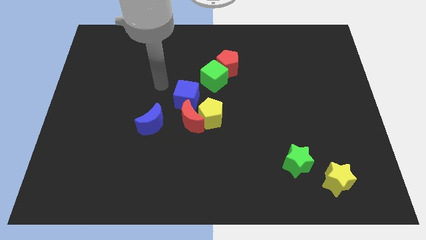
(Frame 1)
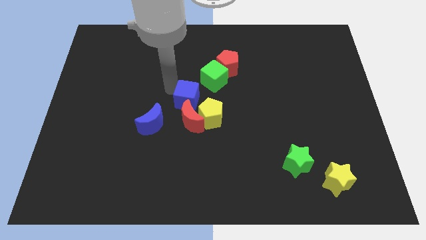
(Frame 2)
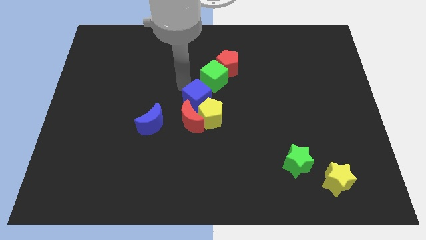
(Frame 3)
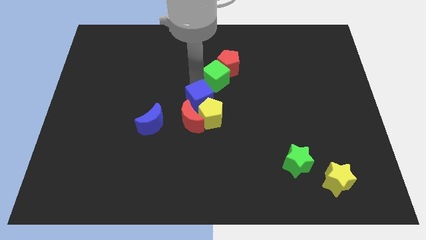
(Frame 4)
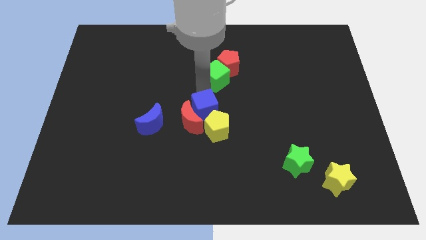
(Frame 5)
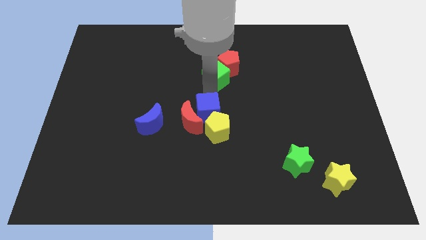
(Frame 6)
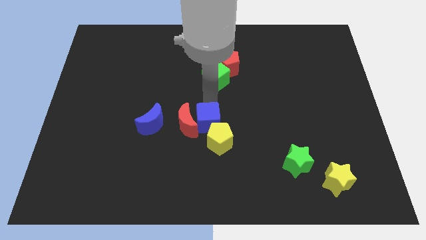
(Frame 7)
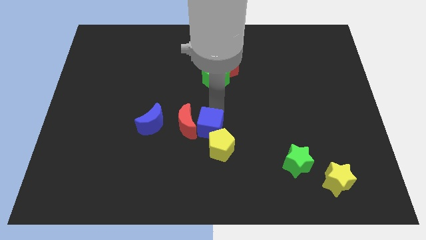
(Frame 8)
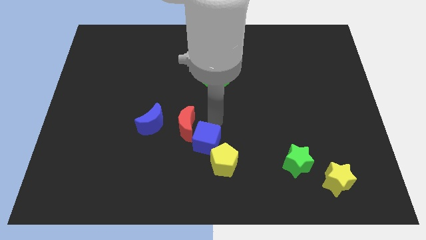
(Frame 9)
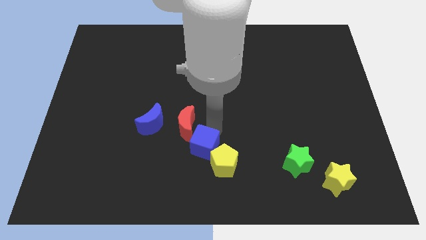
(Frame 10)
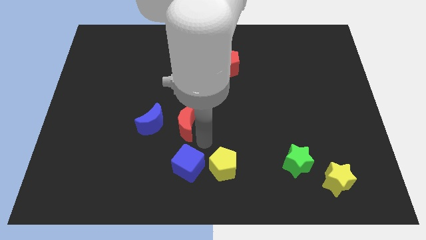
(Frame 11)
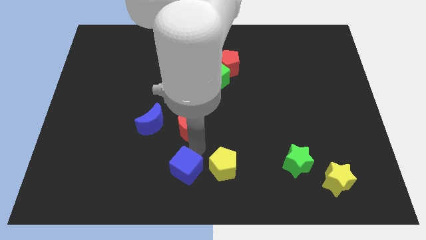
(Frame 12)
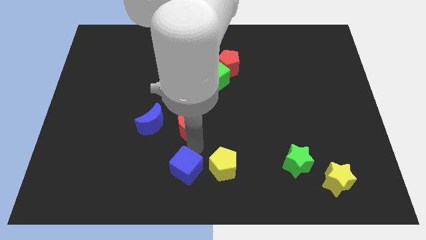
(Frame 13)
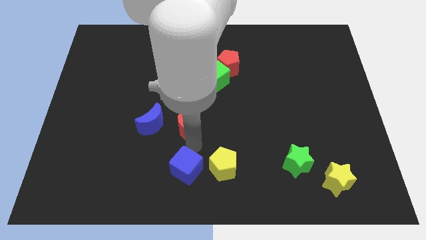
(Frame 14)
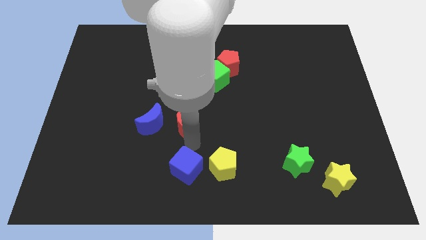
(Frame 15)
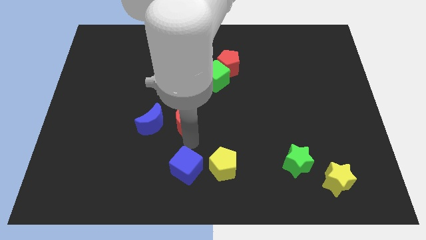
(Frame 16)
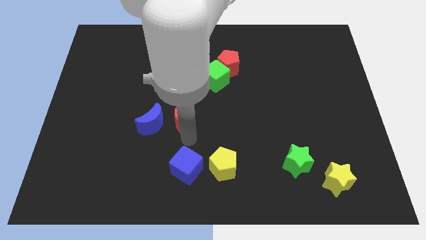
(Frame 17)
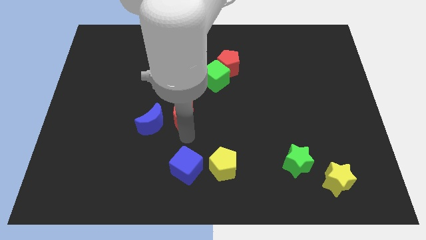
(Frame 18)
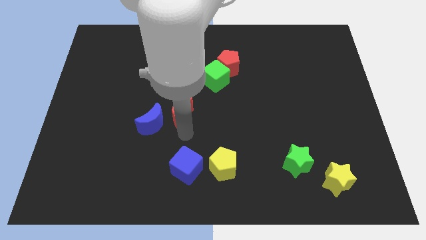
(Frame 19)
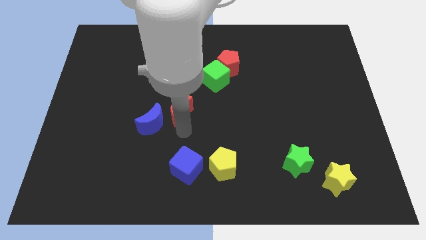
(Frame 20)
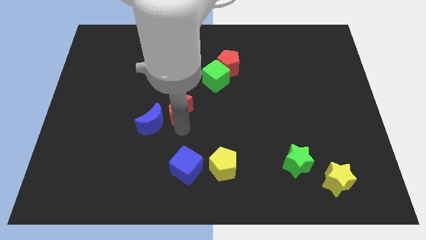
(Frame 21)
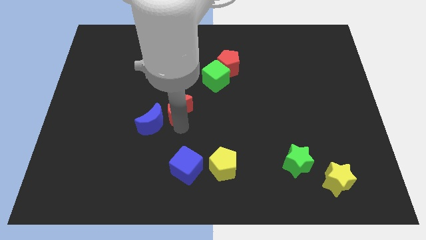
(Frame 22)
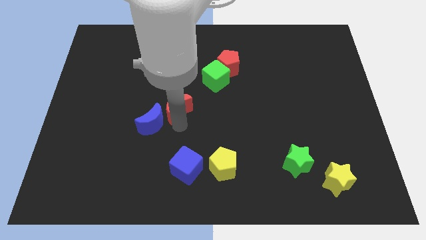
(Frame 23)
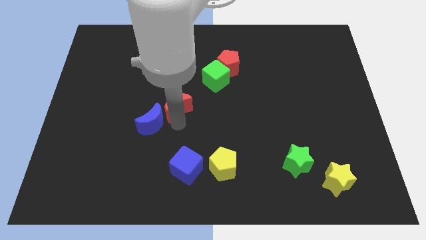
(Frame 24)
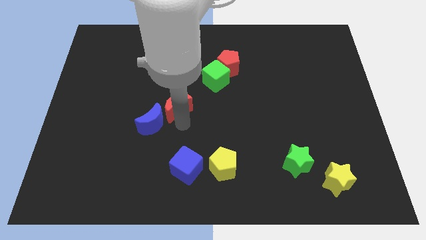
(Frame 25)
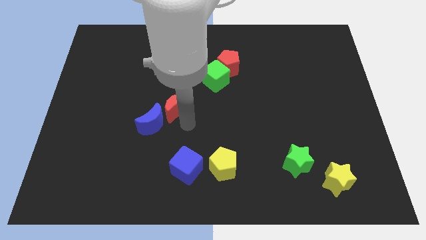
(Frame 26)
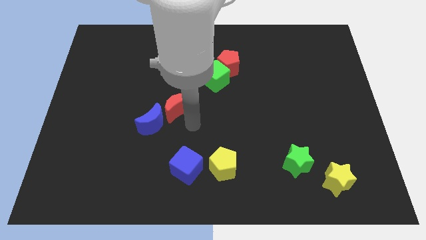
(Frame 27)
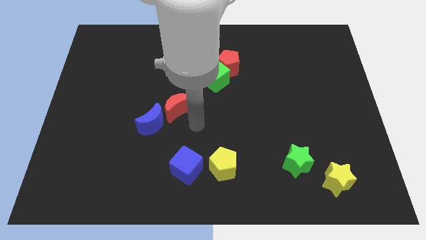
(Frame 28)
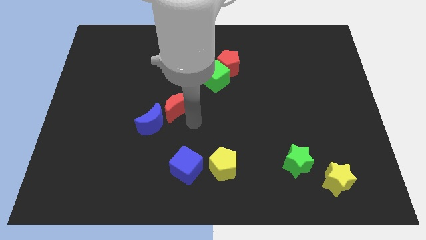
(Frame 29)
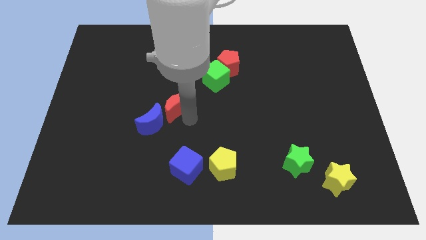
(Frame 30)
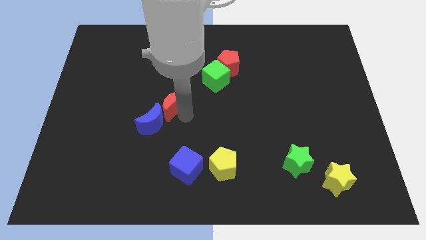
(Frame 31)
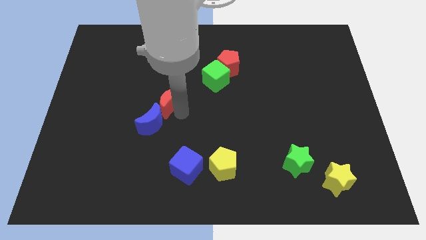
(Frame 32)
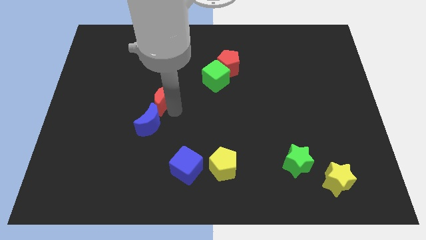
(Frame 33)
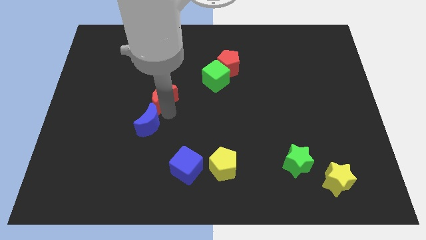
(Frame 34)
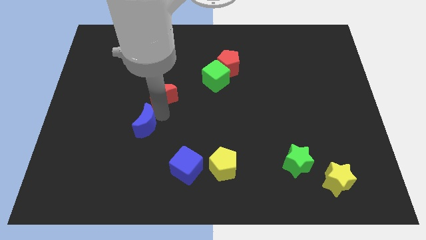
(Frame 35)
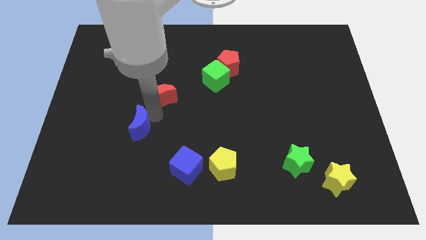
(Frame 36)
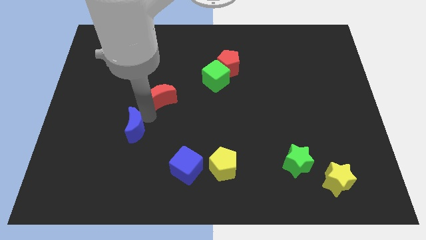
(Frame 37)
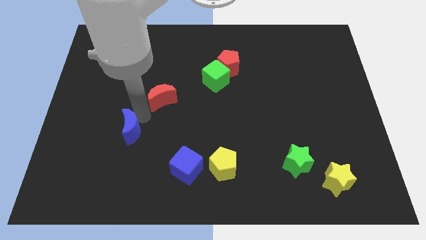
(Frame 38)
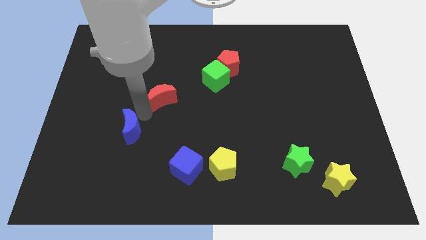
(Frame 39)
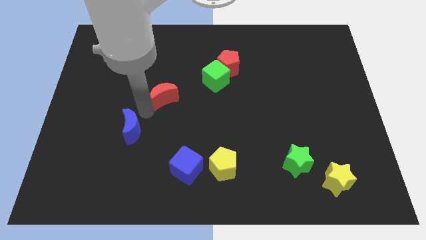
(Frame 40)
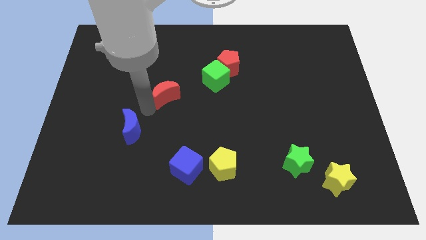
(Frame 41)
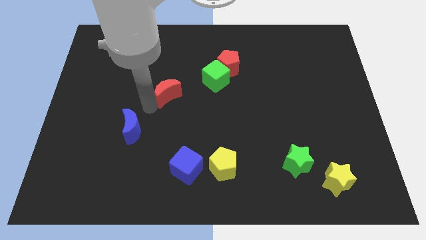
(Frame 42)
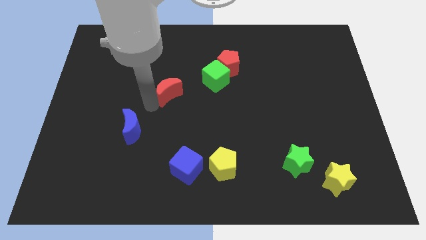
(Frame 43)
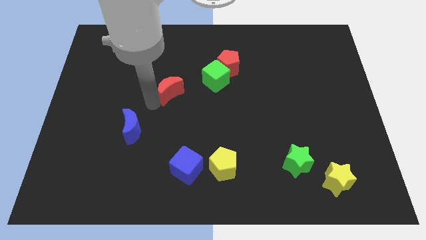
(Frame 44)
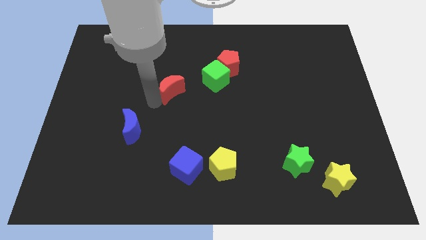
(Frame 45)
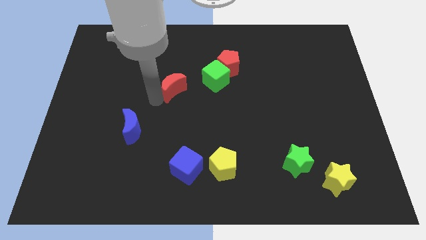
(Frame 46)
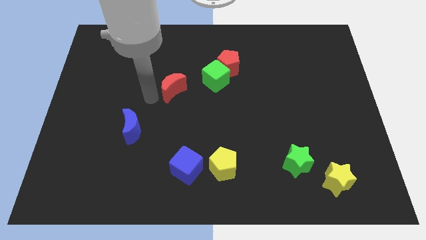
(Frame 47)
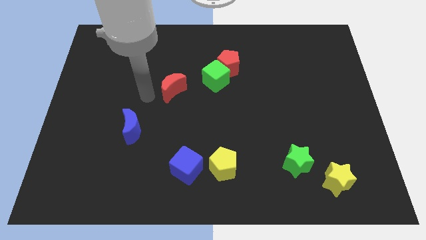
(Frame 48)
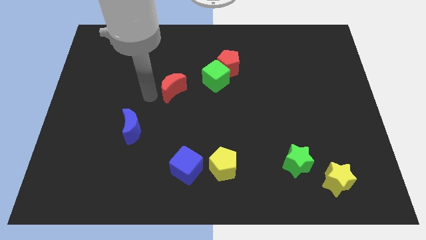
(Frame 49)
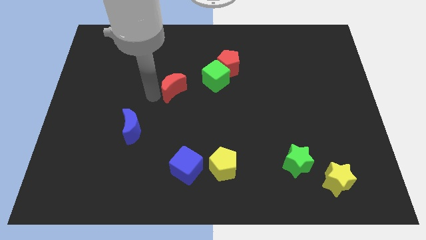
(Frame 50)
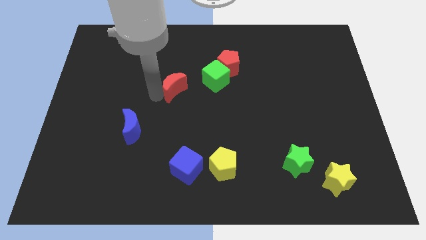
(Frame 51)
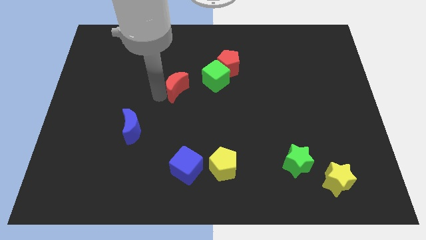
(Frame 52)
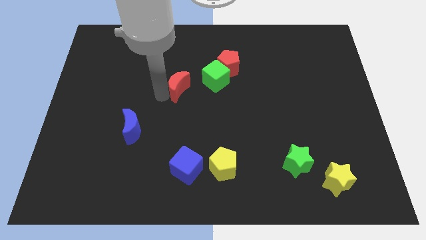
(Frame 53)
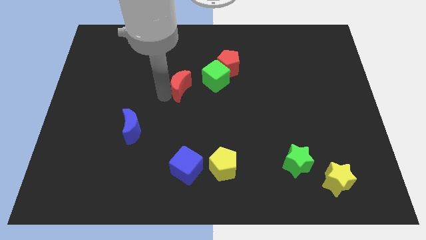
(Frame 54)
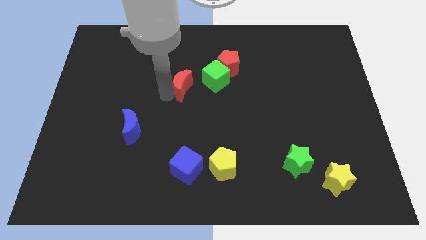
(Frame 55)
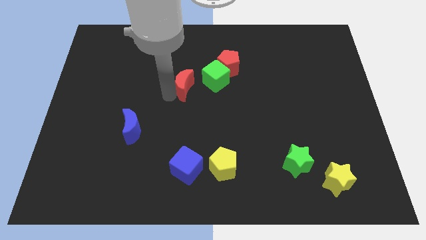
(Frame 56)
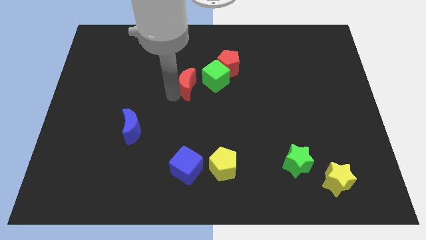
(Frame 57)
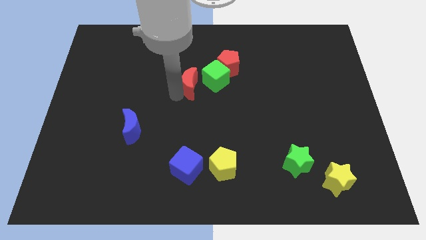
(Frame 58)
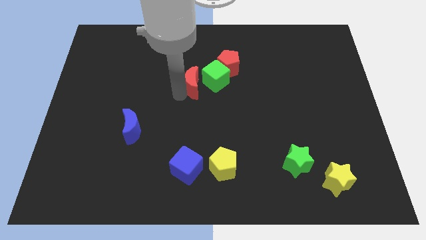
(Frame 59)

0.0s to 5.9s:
put the red moon close to the green cube

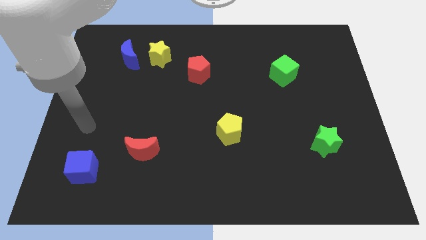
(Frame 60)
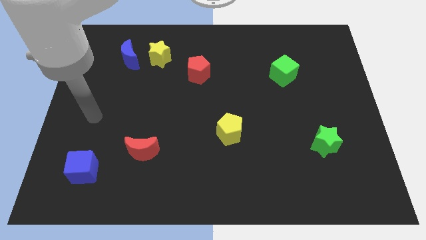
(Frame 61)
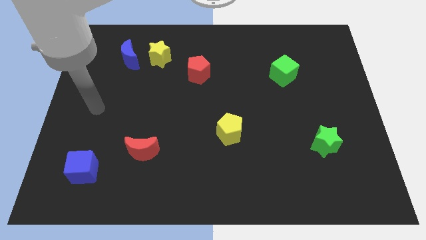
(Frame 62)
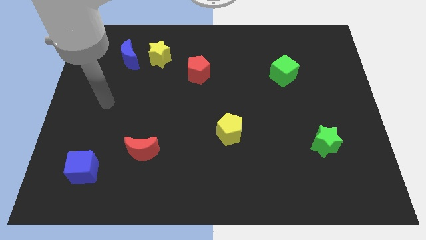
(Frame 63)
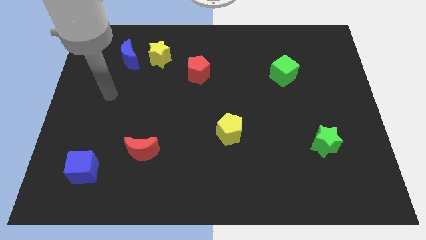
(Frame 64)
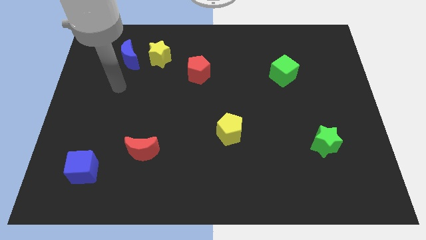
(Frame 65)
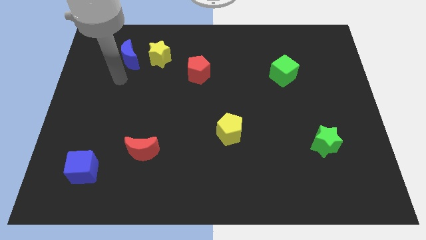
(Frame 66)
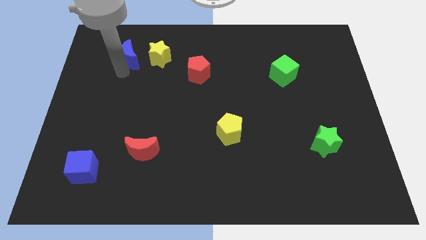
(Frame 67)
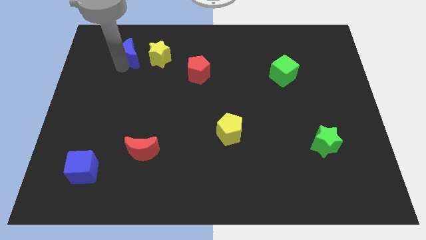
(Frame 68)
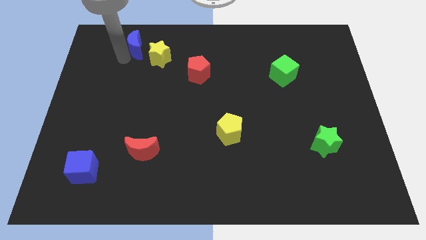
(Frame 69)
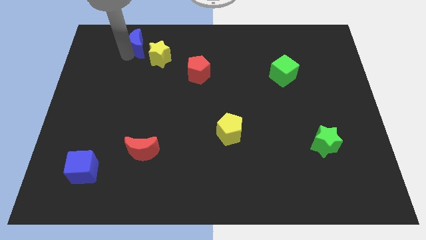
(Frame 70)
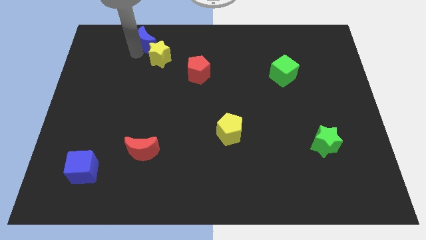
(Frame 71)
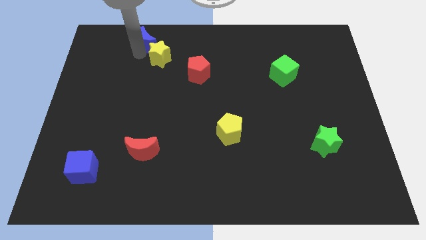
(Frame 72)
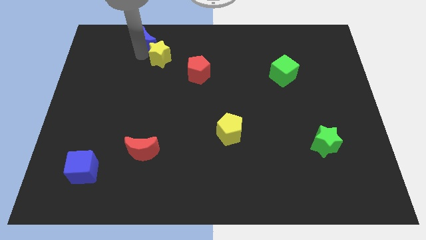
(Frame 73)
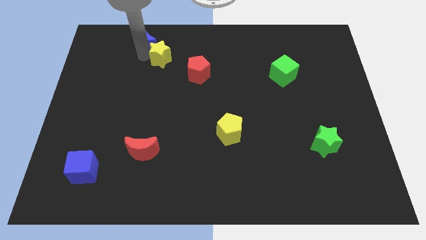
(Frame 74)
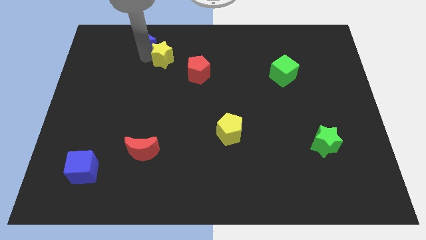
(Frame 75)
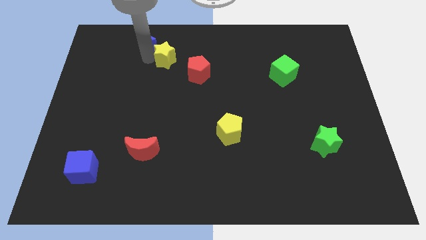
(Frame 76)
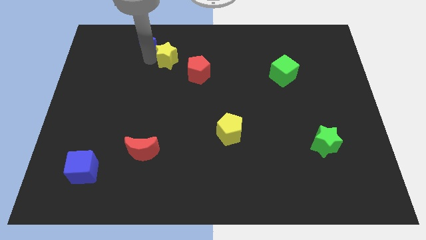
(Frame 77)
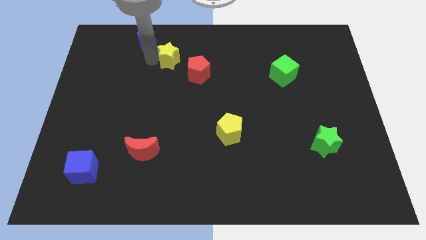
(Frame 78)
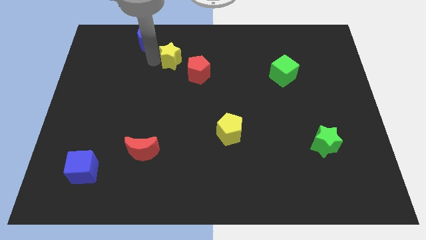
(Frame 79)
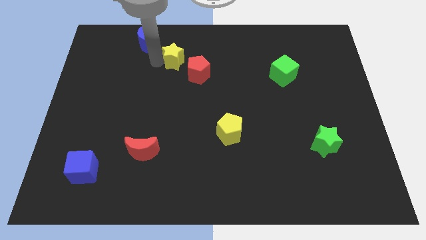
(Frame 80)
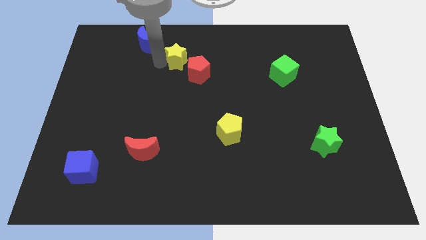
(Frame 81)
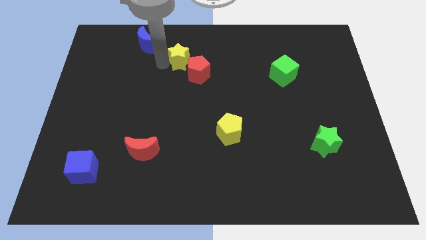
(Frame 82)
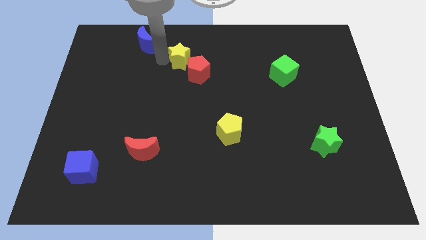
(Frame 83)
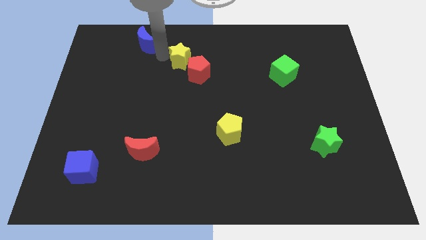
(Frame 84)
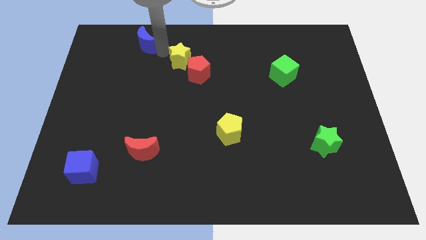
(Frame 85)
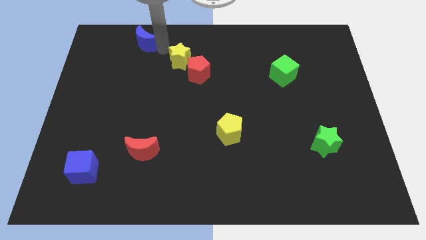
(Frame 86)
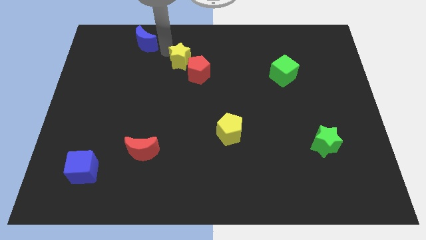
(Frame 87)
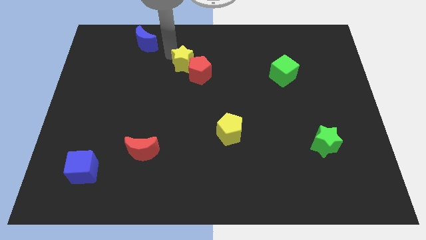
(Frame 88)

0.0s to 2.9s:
move the yellow star close to the red pentagon
